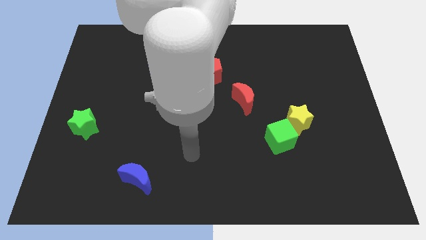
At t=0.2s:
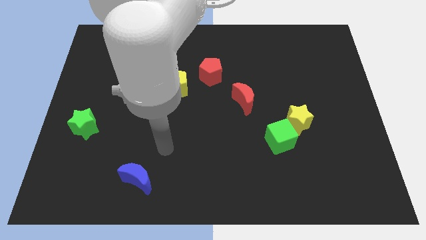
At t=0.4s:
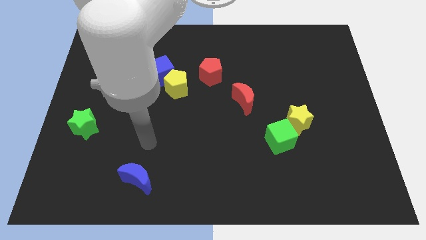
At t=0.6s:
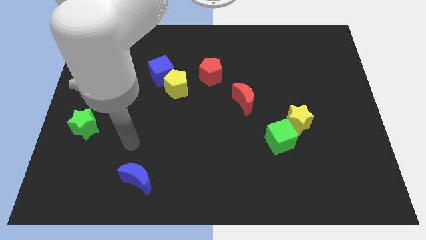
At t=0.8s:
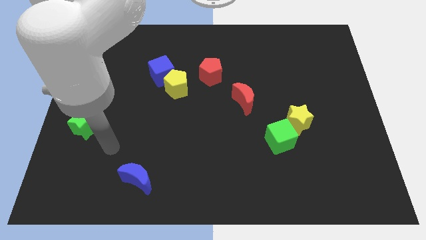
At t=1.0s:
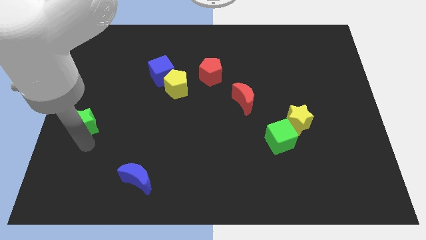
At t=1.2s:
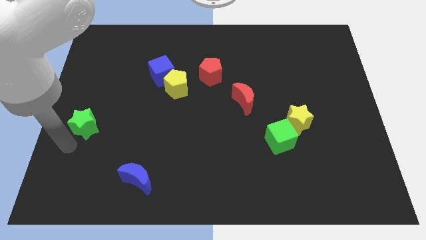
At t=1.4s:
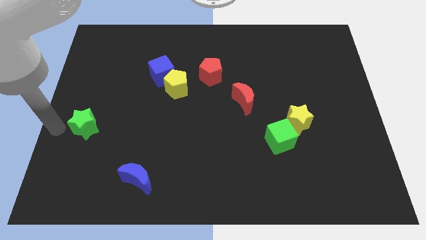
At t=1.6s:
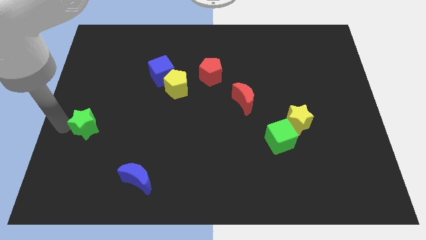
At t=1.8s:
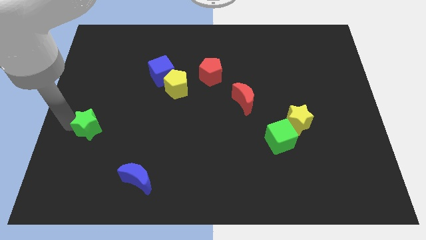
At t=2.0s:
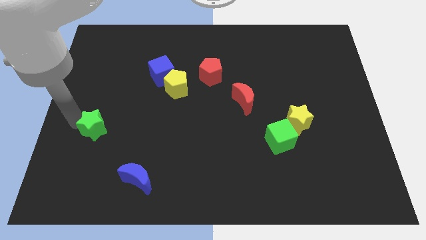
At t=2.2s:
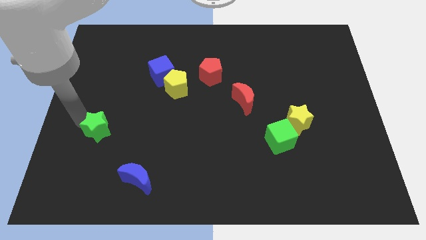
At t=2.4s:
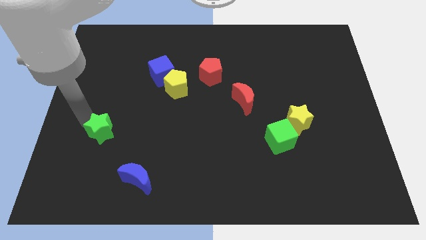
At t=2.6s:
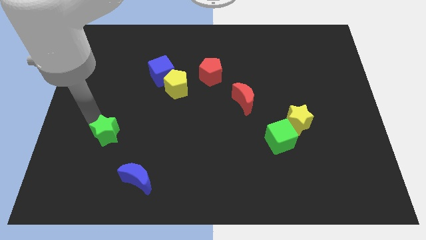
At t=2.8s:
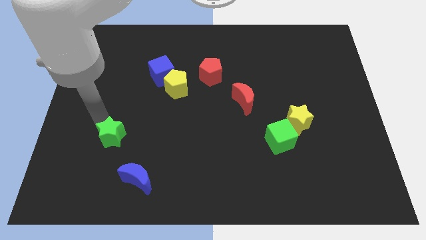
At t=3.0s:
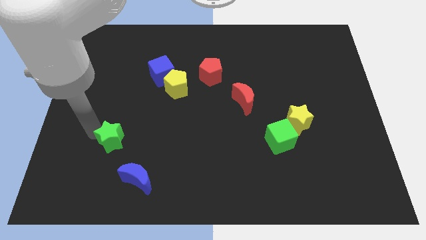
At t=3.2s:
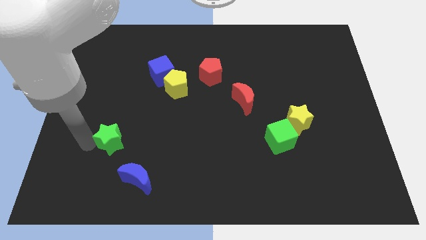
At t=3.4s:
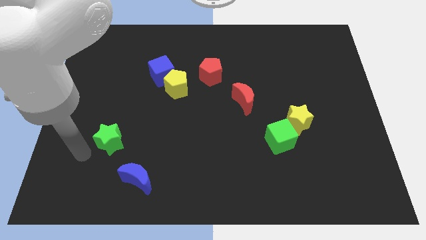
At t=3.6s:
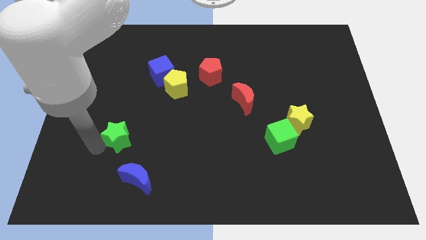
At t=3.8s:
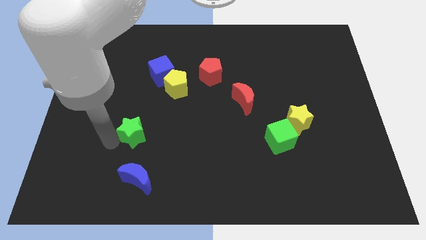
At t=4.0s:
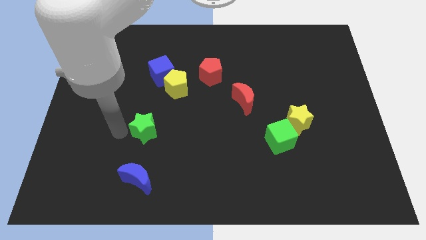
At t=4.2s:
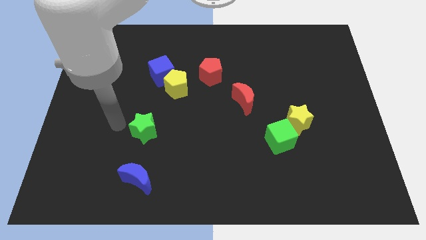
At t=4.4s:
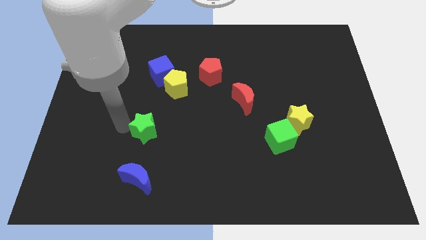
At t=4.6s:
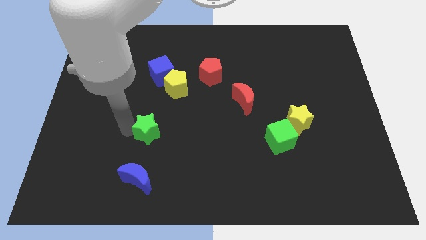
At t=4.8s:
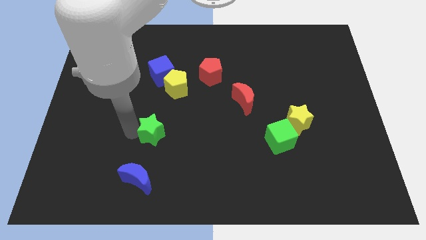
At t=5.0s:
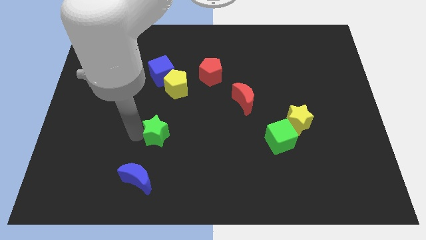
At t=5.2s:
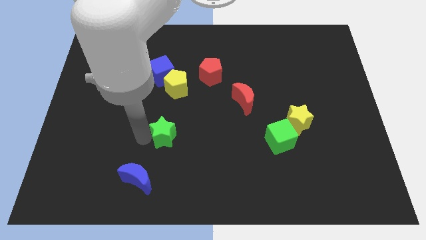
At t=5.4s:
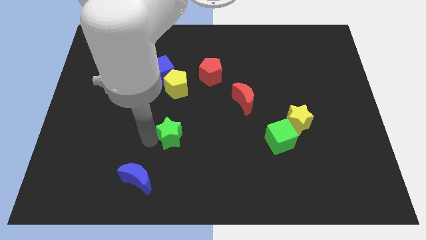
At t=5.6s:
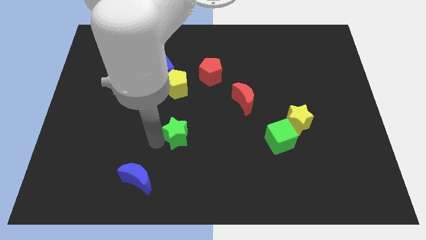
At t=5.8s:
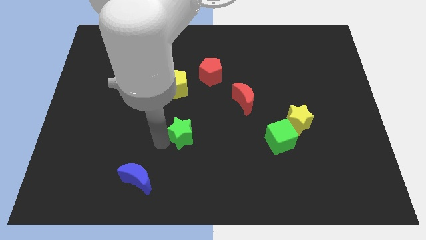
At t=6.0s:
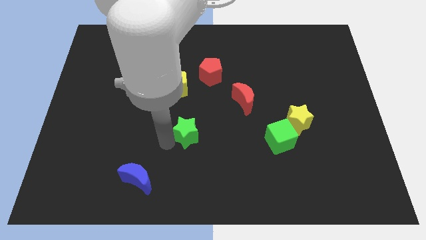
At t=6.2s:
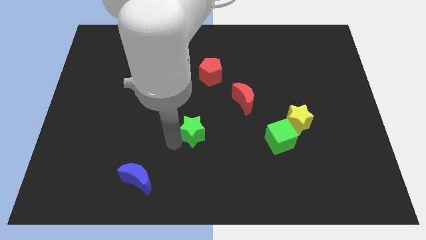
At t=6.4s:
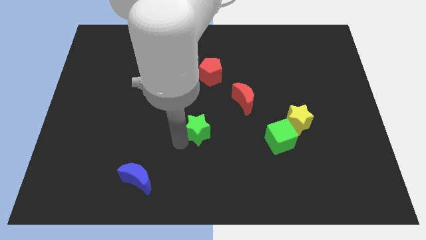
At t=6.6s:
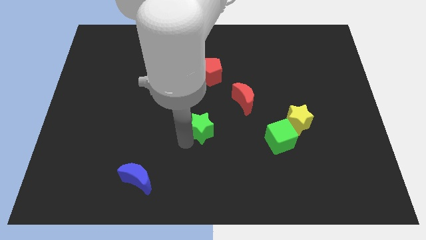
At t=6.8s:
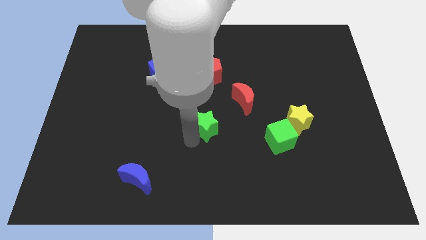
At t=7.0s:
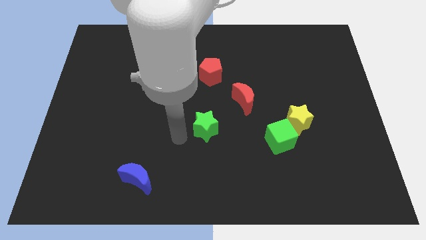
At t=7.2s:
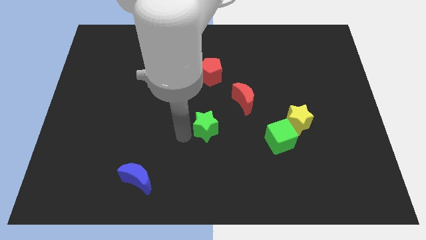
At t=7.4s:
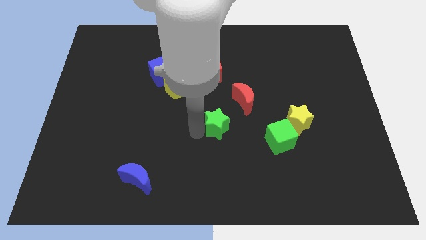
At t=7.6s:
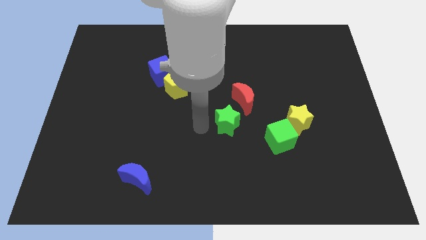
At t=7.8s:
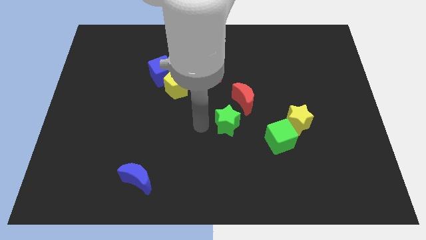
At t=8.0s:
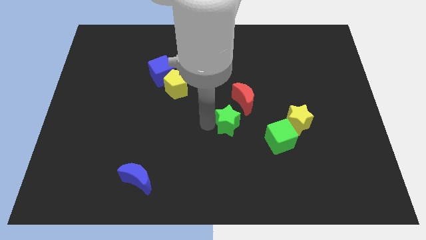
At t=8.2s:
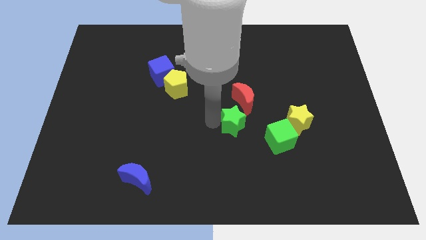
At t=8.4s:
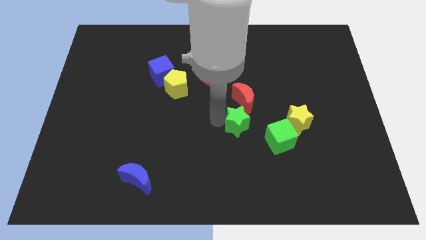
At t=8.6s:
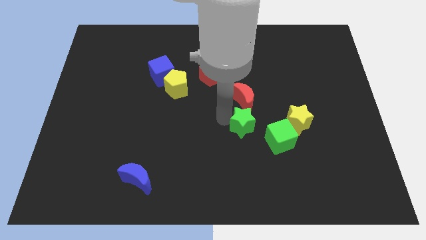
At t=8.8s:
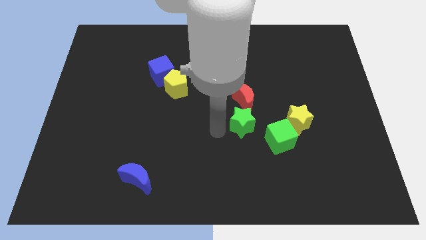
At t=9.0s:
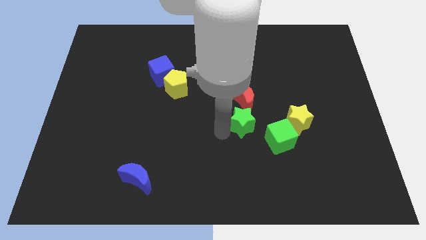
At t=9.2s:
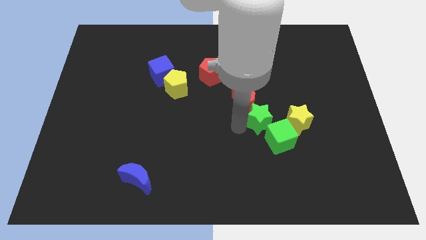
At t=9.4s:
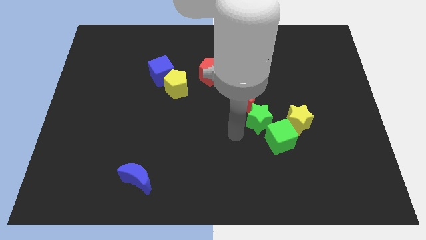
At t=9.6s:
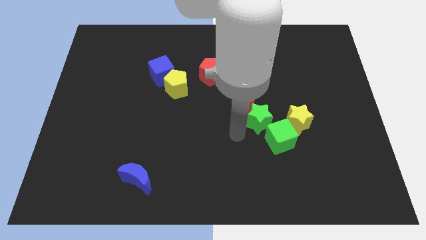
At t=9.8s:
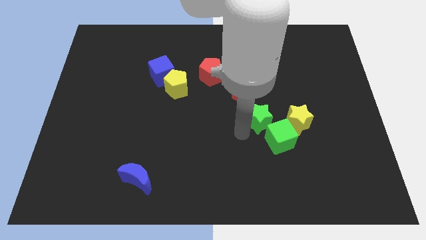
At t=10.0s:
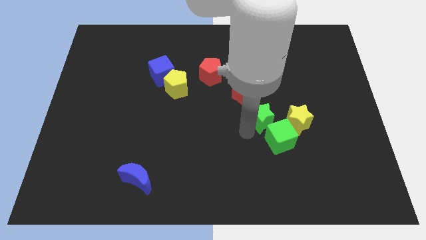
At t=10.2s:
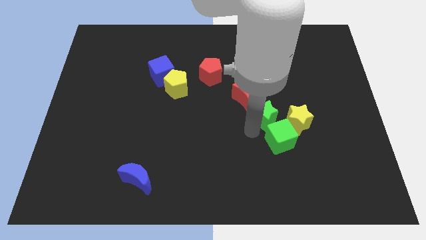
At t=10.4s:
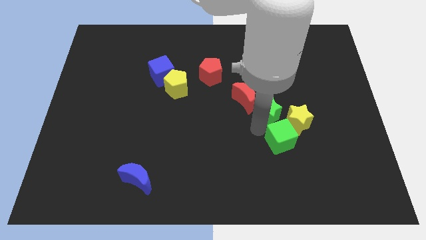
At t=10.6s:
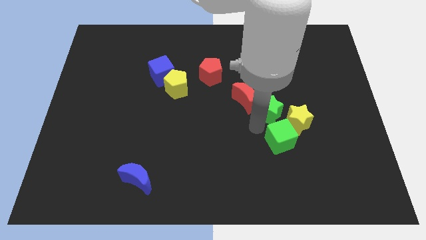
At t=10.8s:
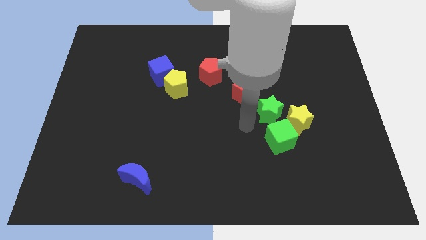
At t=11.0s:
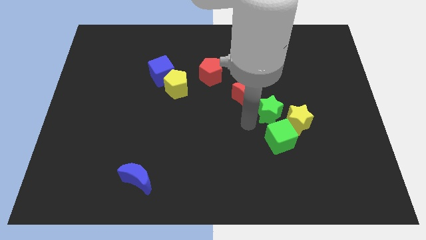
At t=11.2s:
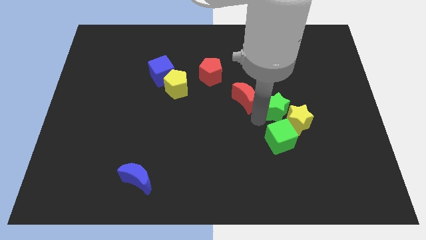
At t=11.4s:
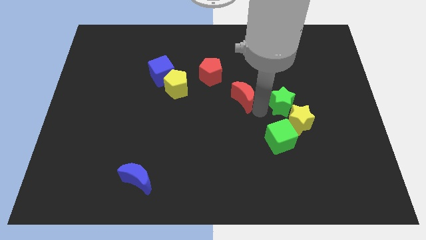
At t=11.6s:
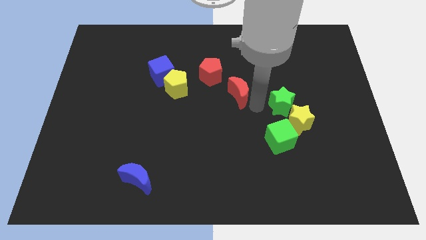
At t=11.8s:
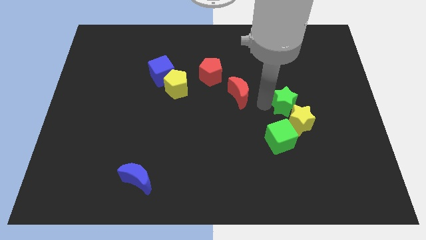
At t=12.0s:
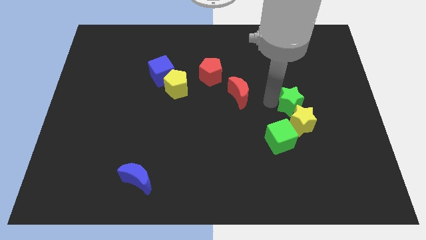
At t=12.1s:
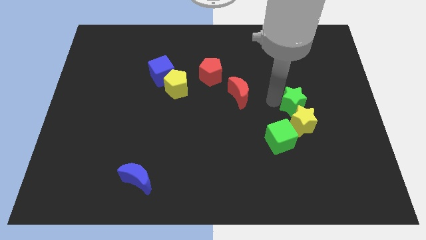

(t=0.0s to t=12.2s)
put the green star diagonally up and to the right of the yellow star
